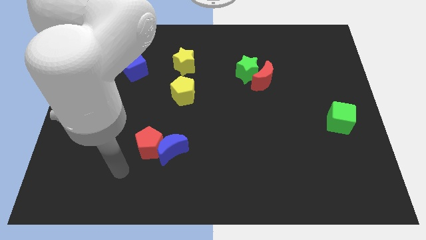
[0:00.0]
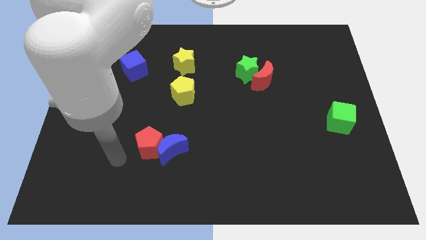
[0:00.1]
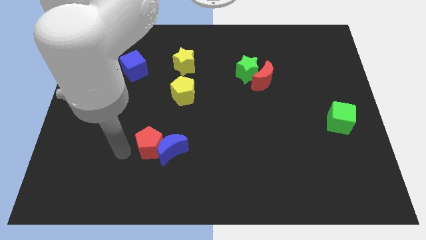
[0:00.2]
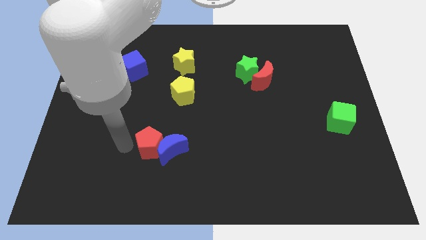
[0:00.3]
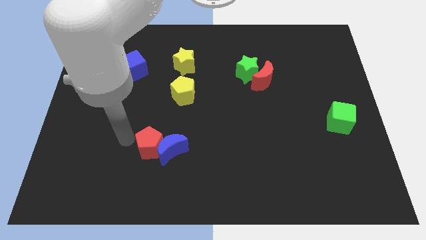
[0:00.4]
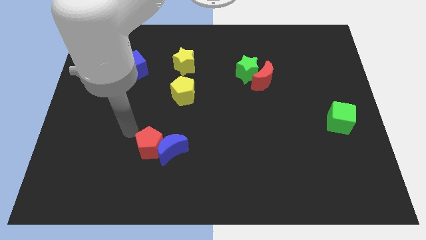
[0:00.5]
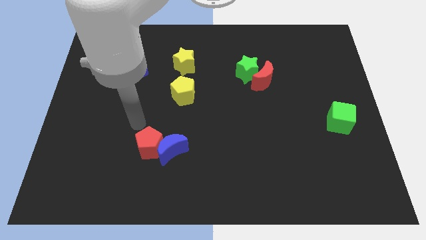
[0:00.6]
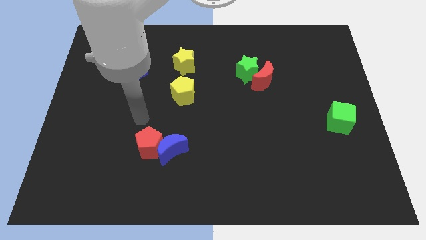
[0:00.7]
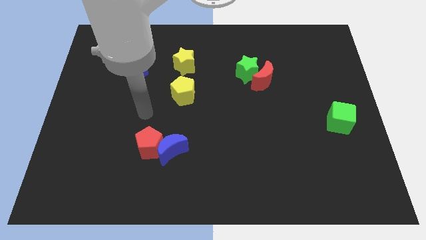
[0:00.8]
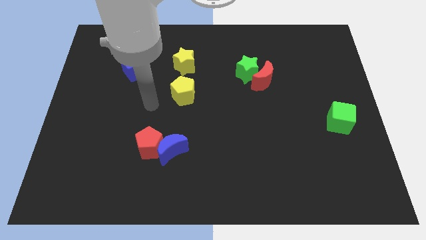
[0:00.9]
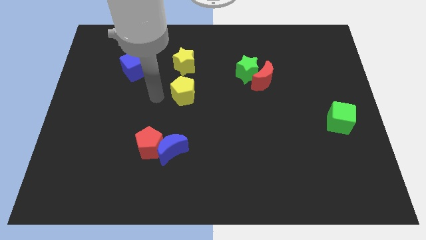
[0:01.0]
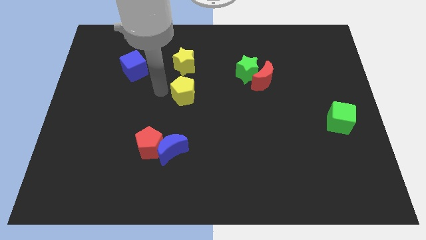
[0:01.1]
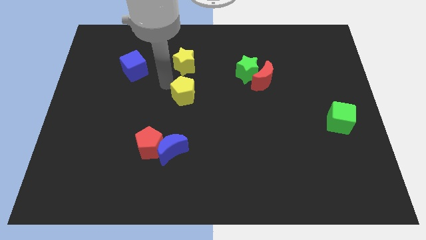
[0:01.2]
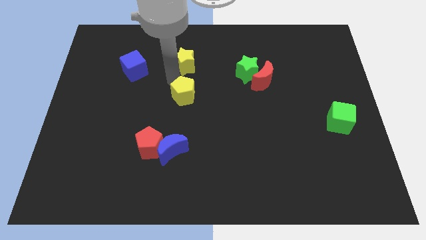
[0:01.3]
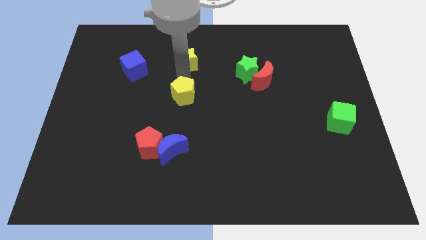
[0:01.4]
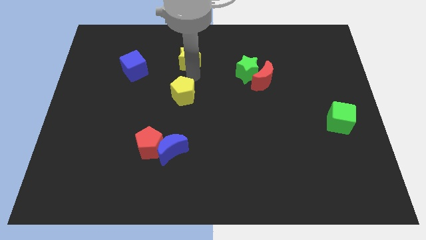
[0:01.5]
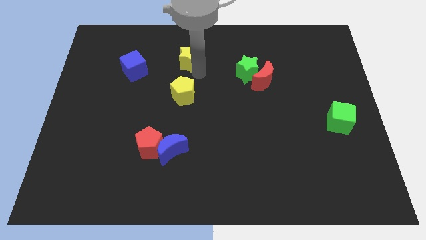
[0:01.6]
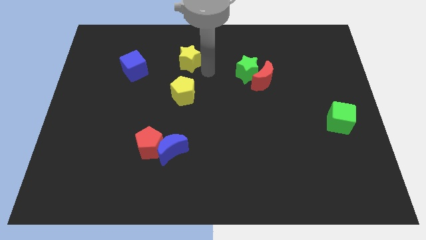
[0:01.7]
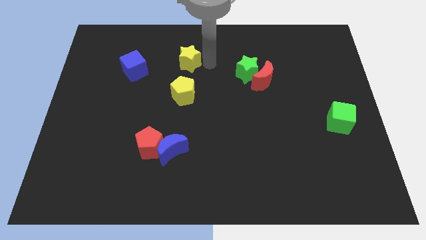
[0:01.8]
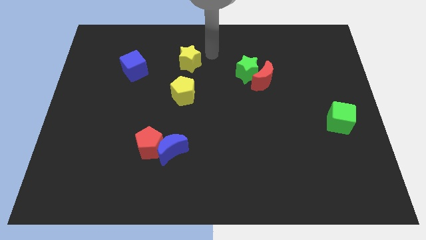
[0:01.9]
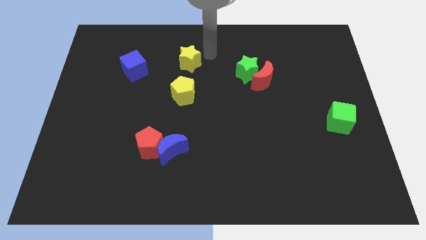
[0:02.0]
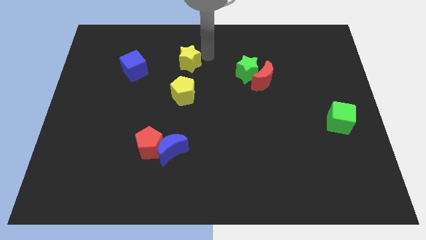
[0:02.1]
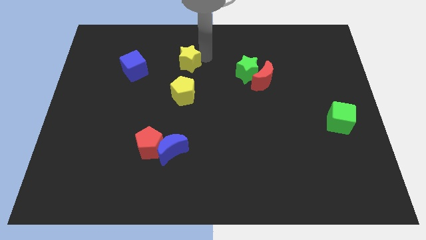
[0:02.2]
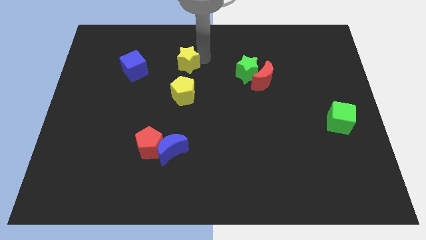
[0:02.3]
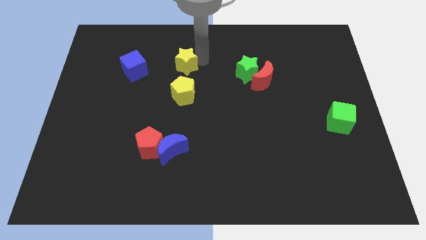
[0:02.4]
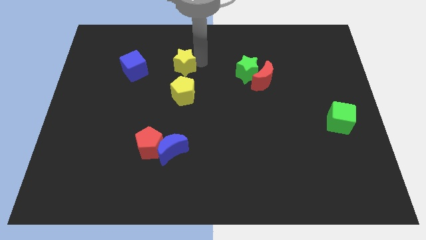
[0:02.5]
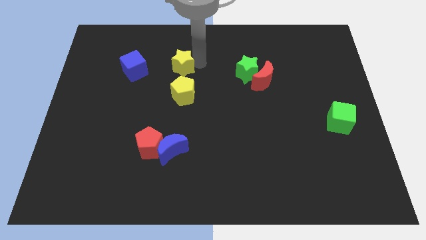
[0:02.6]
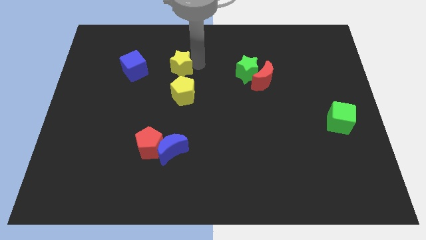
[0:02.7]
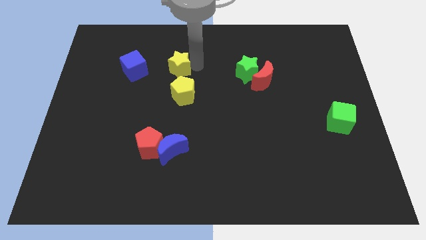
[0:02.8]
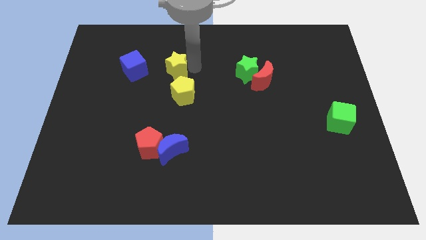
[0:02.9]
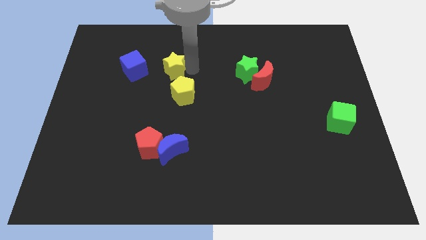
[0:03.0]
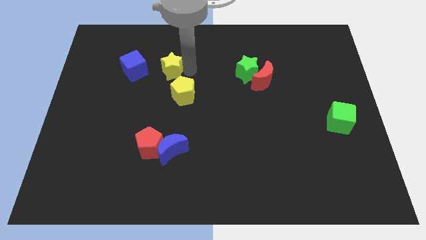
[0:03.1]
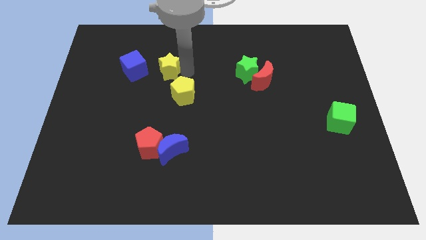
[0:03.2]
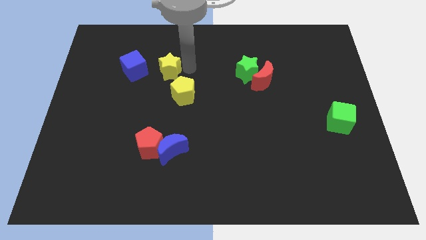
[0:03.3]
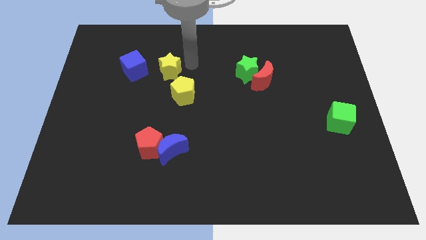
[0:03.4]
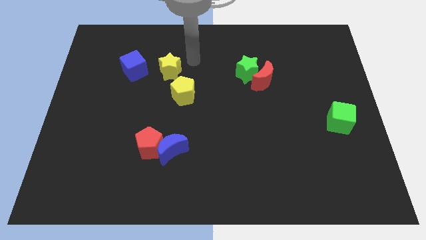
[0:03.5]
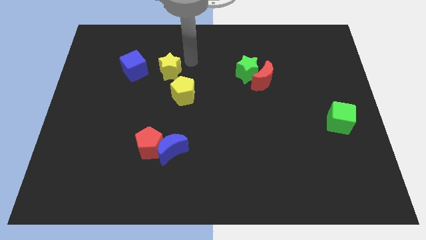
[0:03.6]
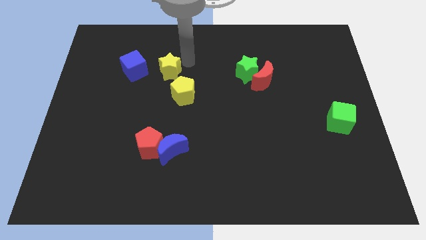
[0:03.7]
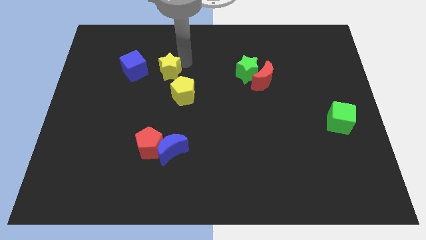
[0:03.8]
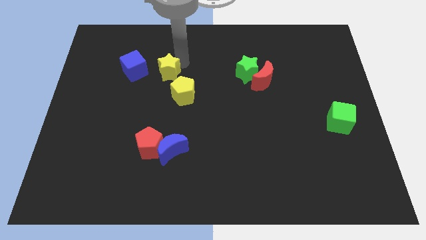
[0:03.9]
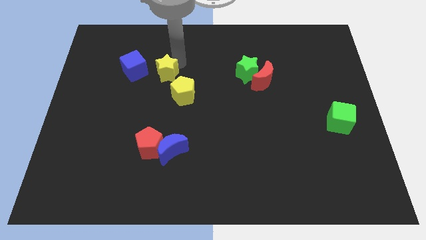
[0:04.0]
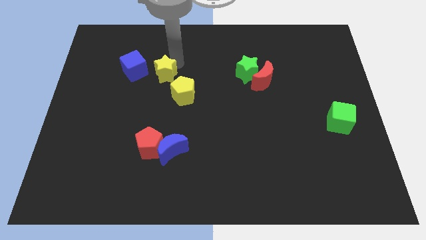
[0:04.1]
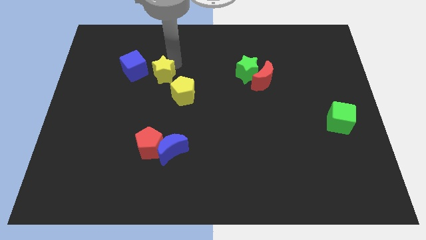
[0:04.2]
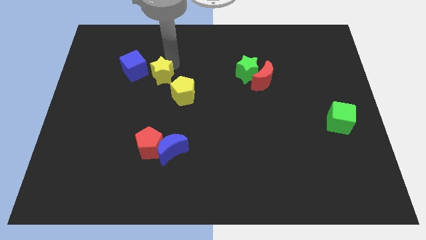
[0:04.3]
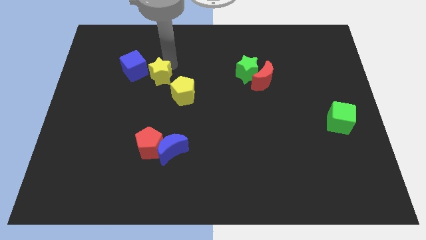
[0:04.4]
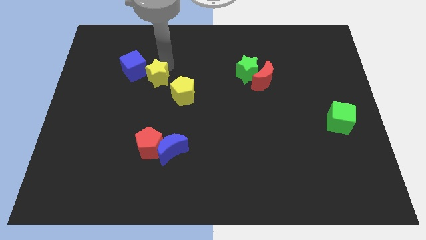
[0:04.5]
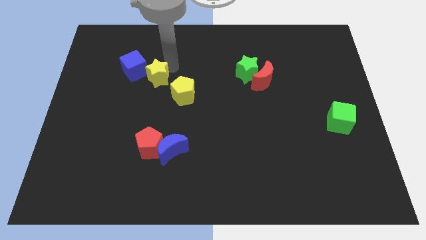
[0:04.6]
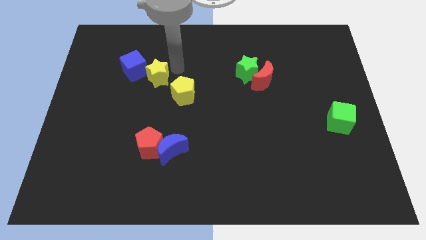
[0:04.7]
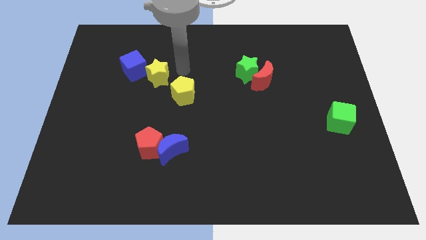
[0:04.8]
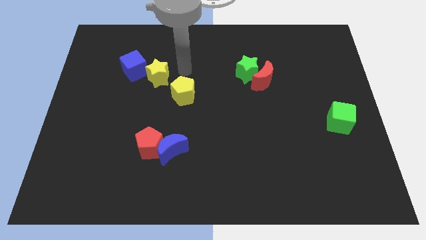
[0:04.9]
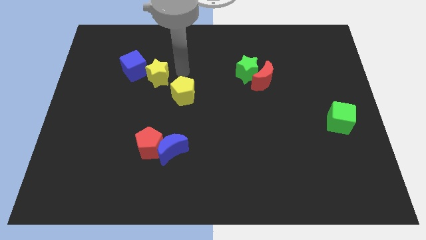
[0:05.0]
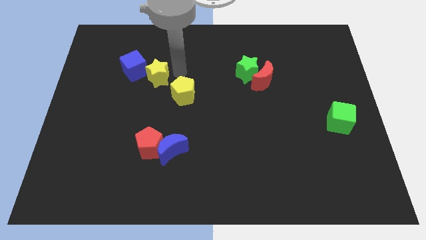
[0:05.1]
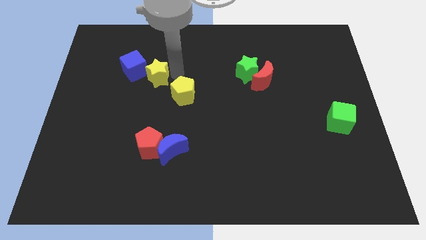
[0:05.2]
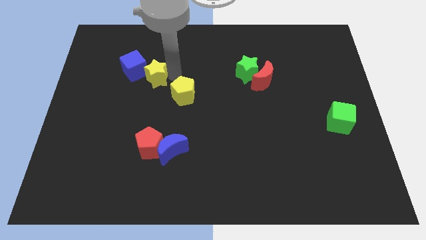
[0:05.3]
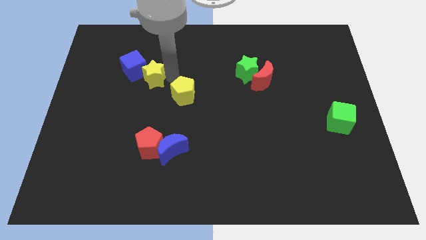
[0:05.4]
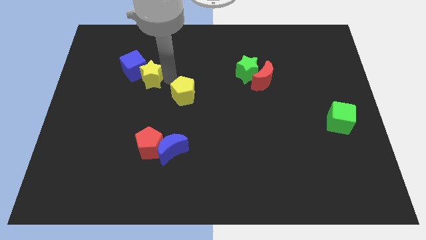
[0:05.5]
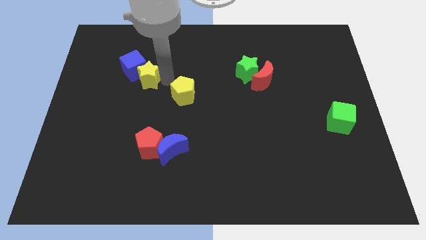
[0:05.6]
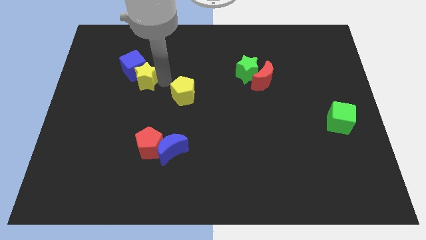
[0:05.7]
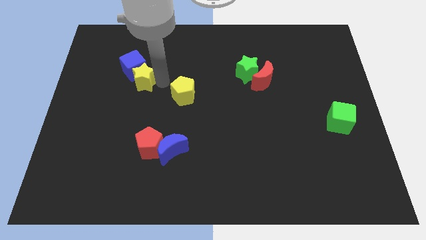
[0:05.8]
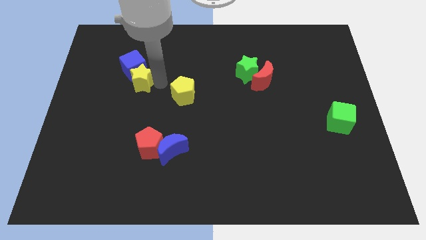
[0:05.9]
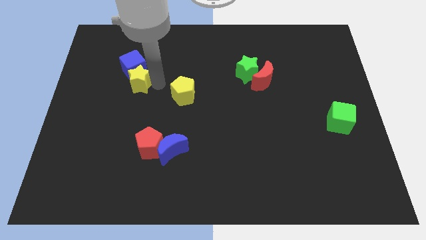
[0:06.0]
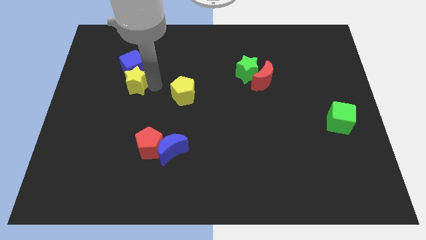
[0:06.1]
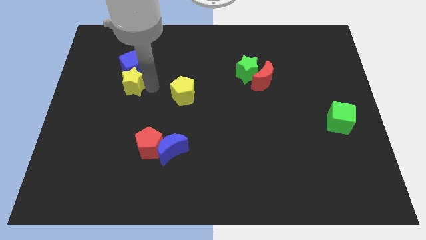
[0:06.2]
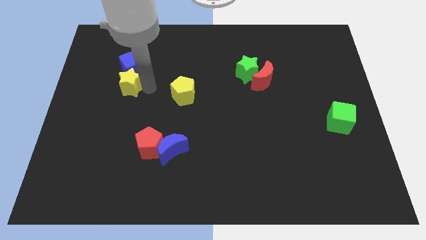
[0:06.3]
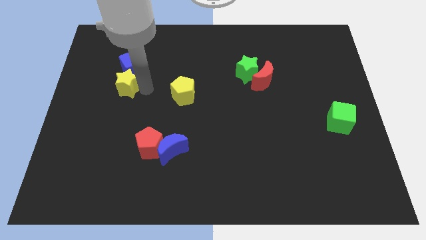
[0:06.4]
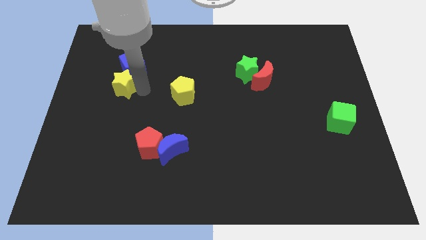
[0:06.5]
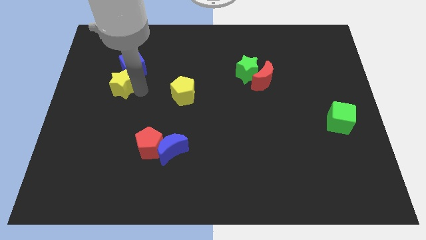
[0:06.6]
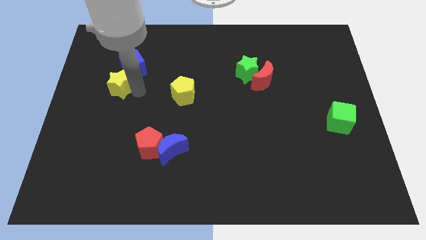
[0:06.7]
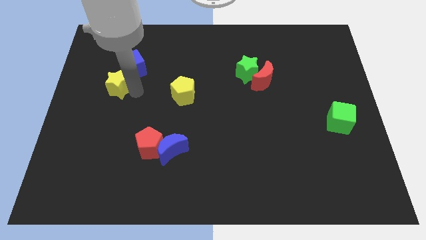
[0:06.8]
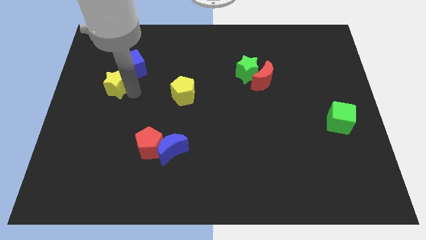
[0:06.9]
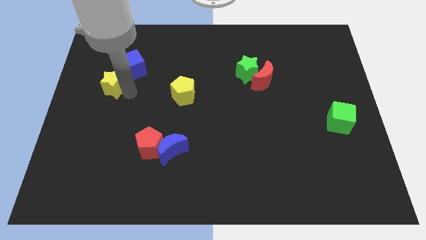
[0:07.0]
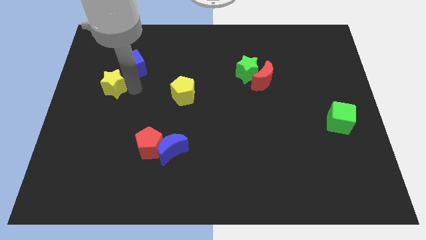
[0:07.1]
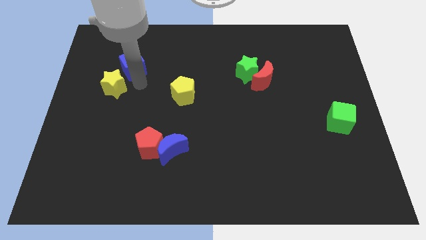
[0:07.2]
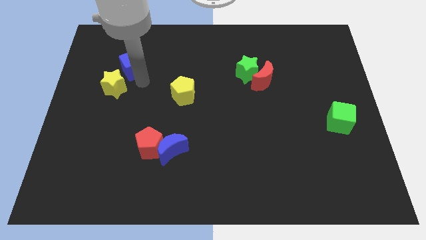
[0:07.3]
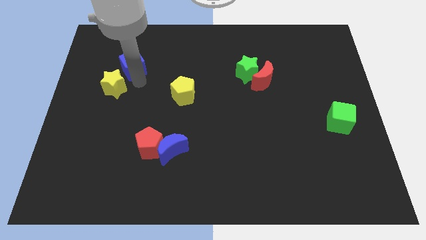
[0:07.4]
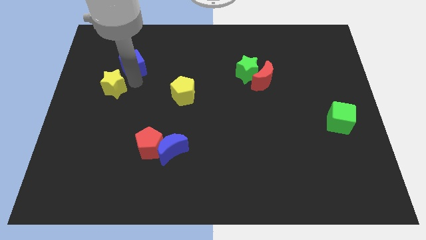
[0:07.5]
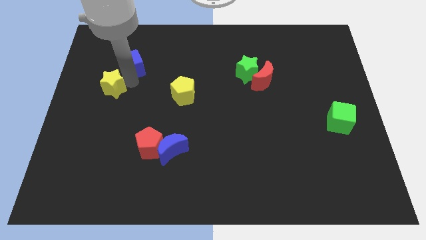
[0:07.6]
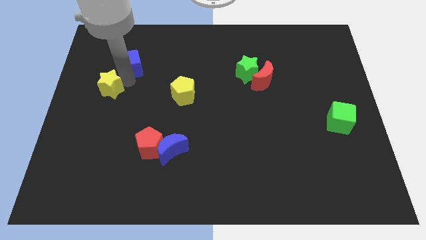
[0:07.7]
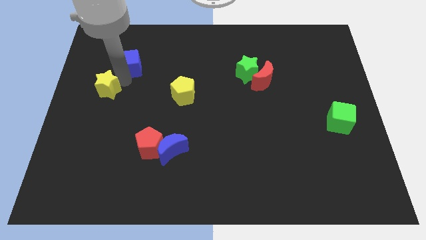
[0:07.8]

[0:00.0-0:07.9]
push the yellow star to the left side of the board
